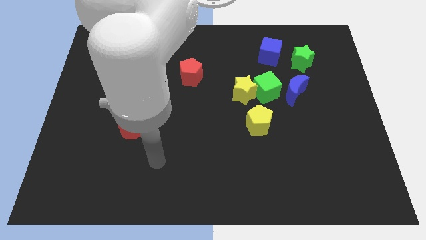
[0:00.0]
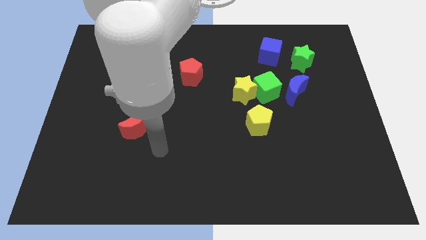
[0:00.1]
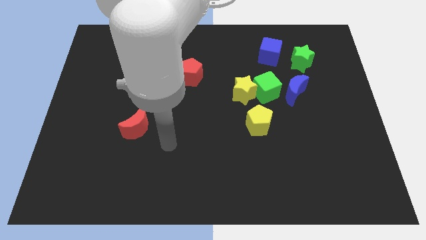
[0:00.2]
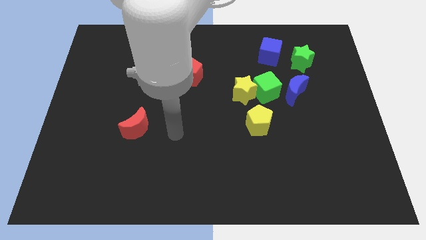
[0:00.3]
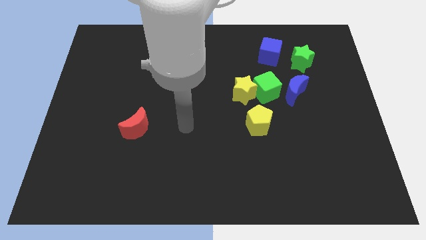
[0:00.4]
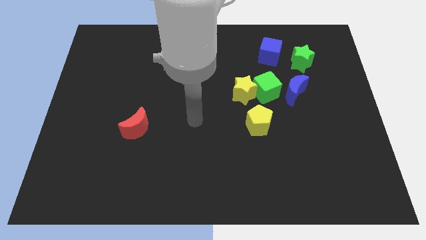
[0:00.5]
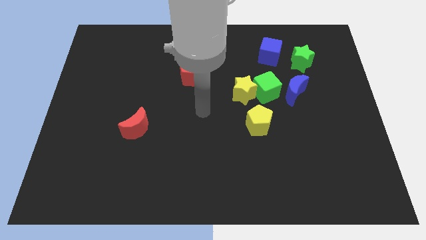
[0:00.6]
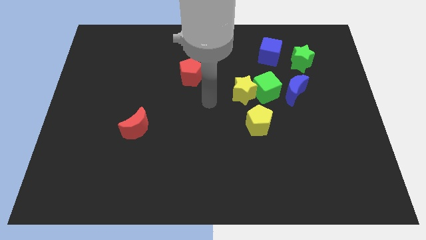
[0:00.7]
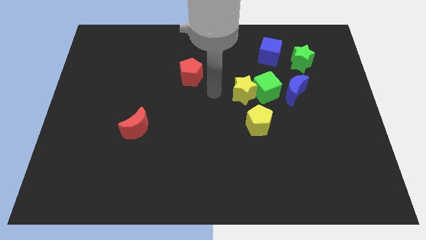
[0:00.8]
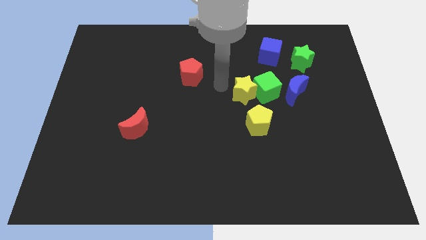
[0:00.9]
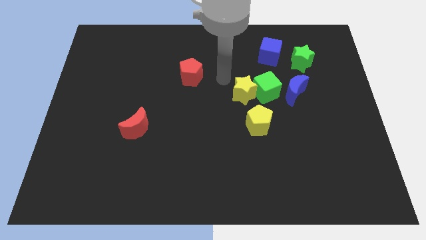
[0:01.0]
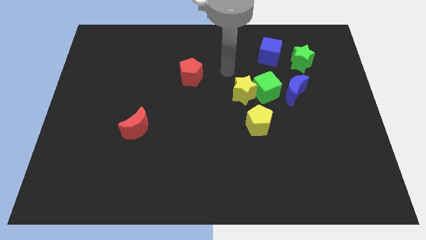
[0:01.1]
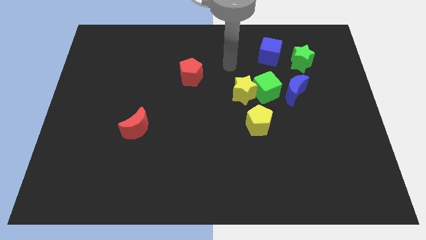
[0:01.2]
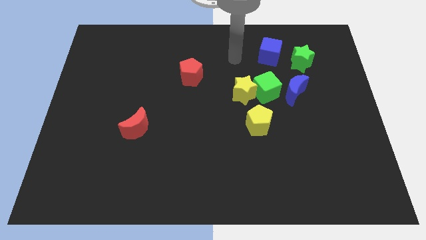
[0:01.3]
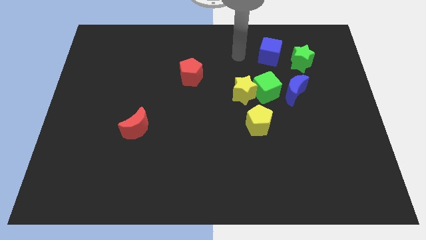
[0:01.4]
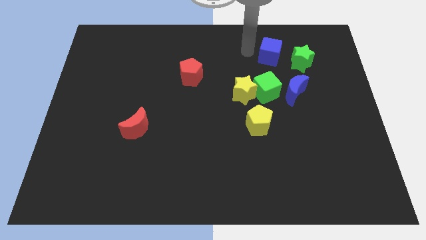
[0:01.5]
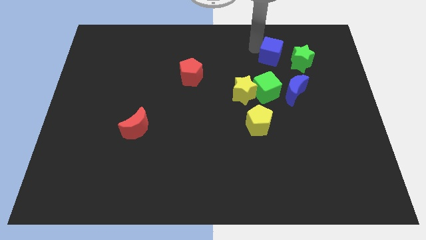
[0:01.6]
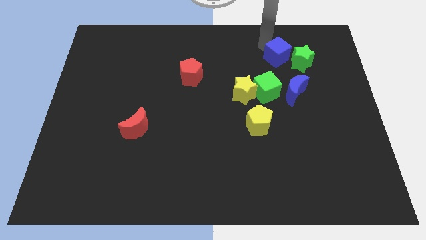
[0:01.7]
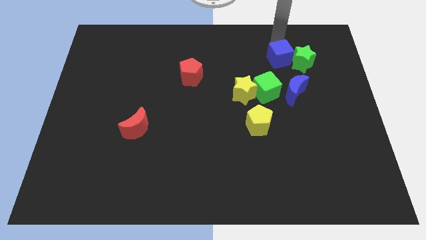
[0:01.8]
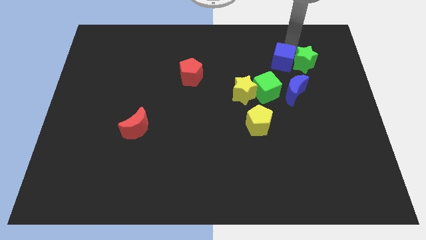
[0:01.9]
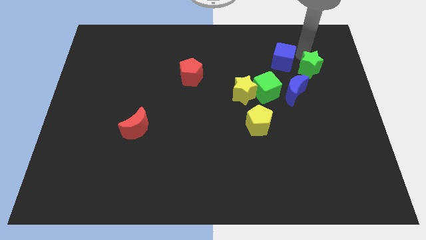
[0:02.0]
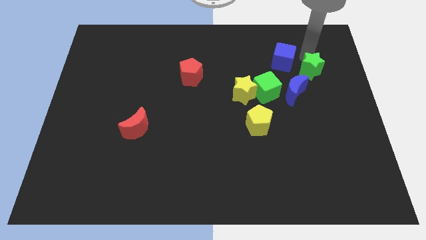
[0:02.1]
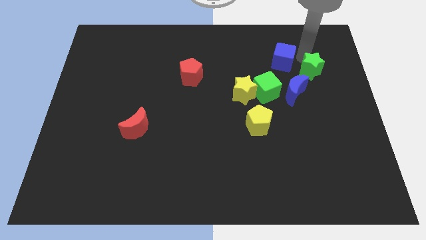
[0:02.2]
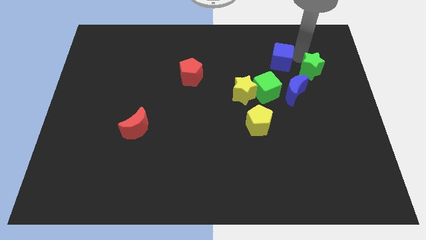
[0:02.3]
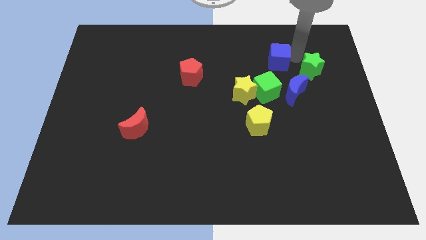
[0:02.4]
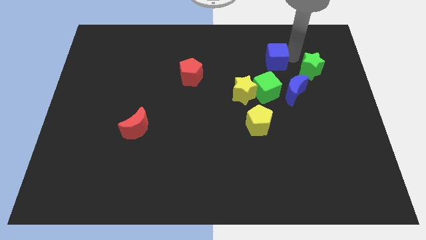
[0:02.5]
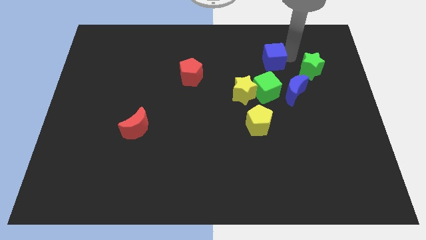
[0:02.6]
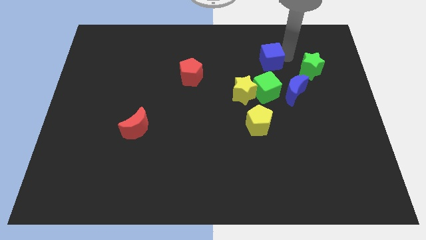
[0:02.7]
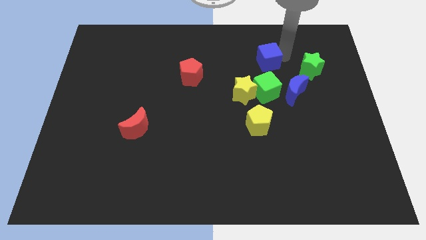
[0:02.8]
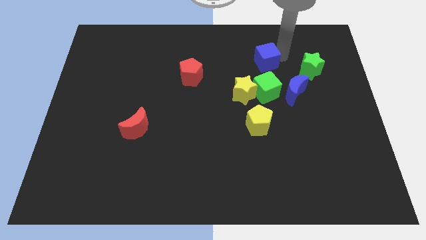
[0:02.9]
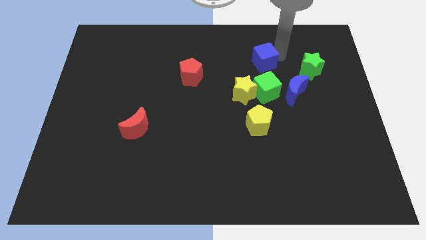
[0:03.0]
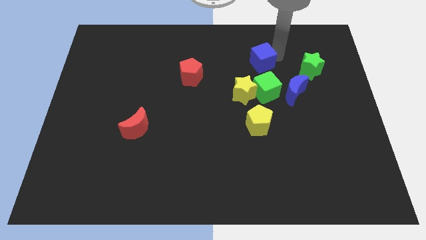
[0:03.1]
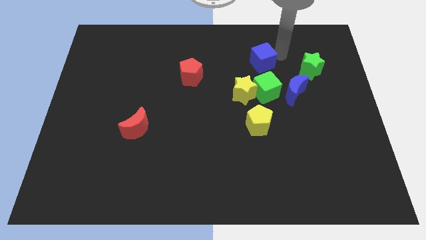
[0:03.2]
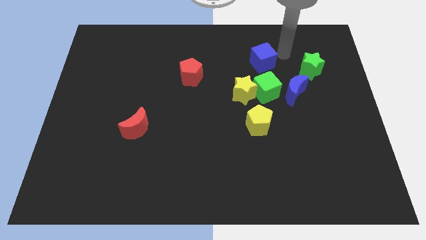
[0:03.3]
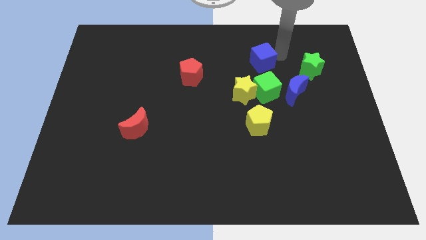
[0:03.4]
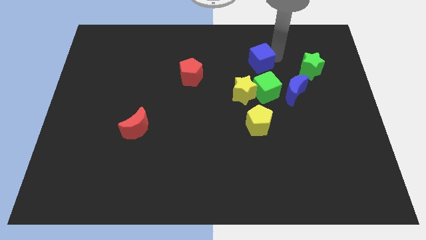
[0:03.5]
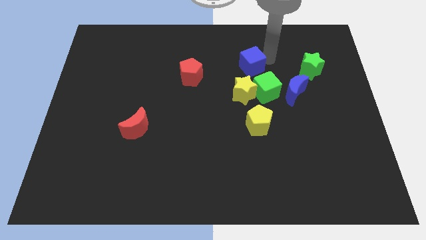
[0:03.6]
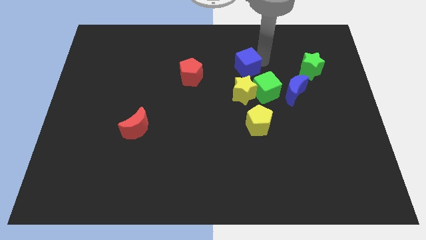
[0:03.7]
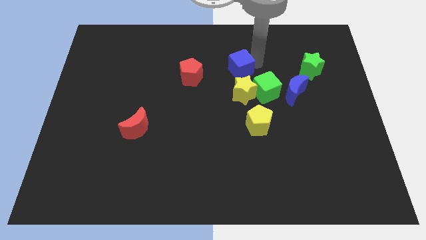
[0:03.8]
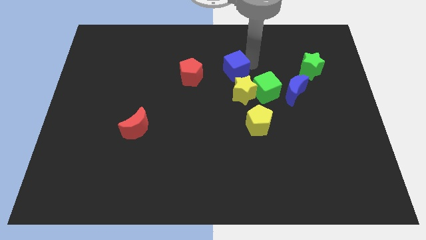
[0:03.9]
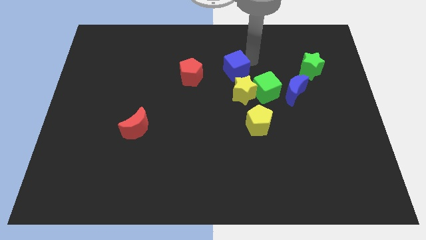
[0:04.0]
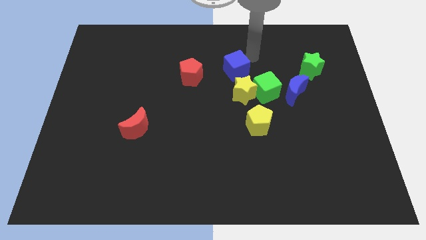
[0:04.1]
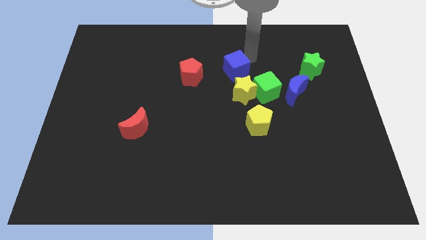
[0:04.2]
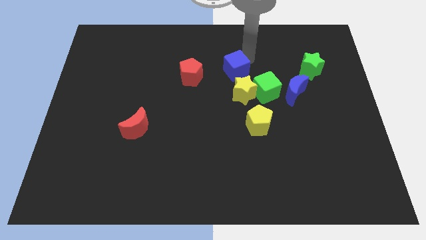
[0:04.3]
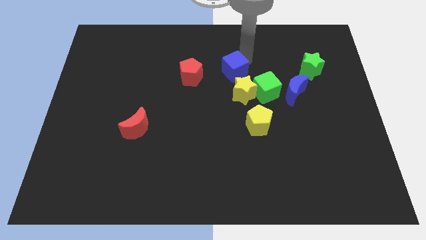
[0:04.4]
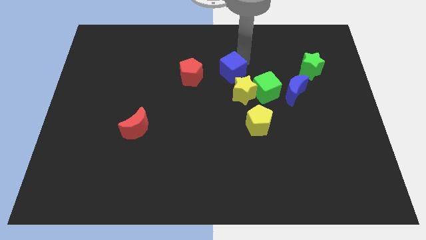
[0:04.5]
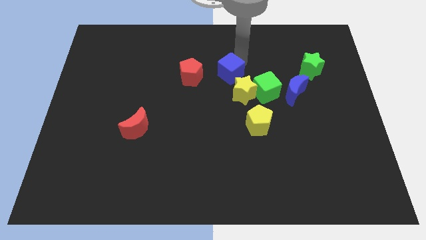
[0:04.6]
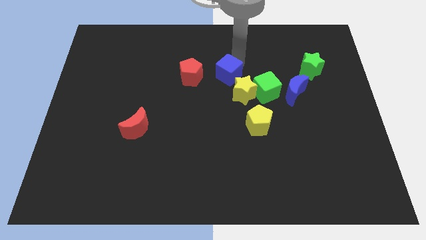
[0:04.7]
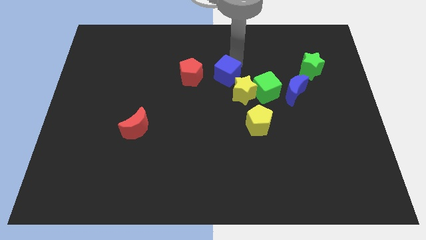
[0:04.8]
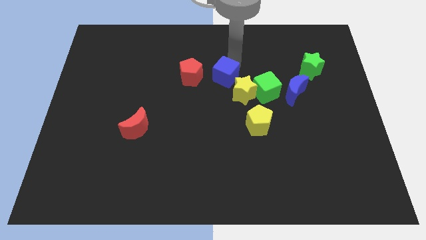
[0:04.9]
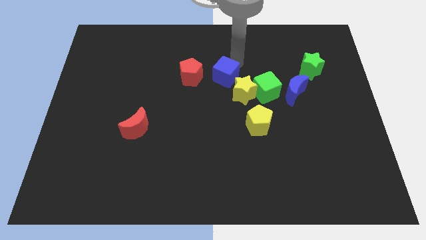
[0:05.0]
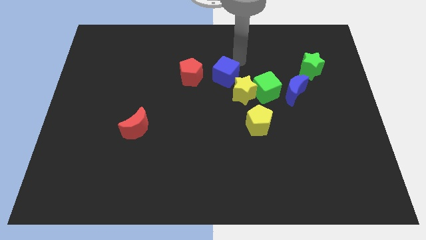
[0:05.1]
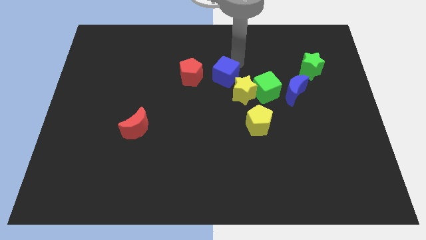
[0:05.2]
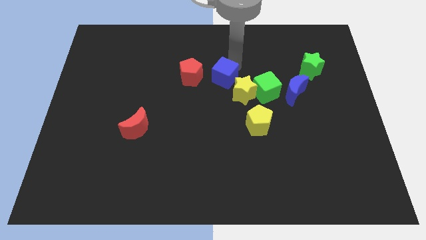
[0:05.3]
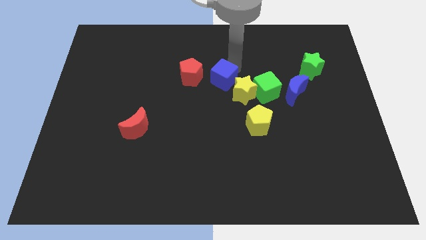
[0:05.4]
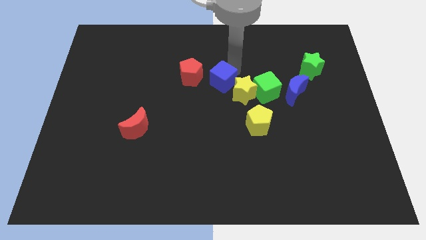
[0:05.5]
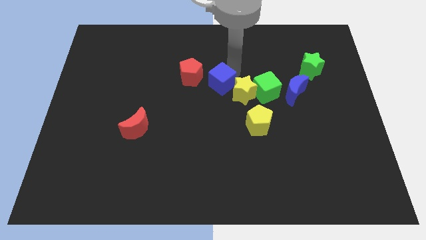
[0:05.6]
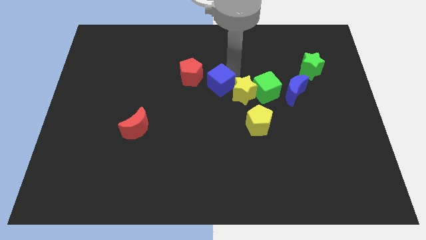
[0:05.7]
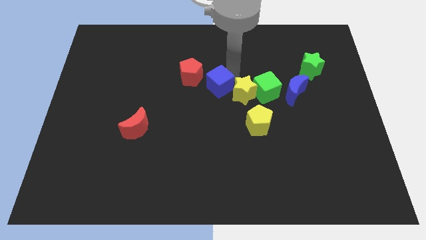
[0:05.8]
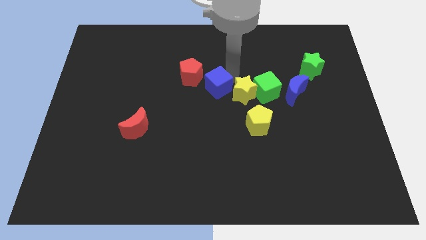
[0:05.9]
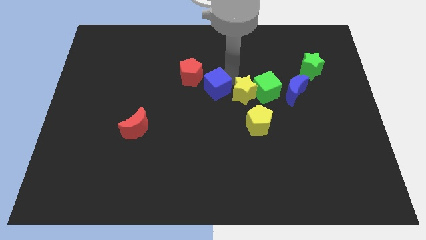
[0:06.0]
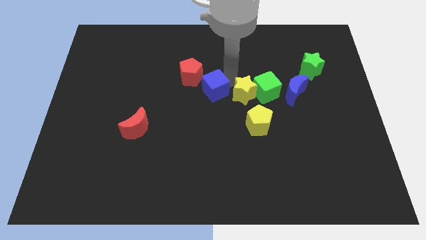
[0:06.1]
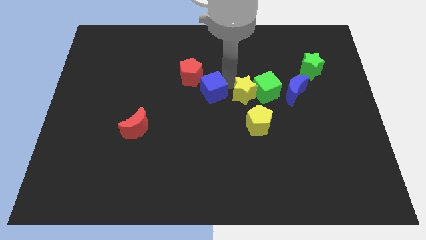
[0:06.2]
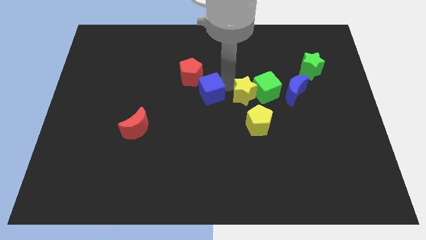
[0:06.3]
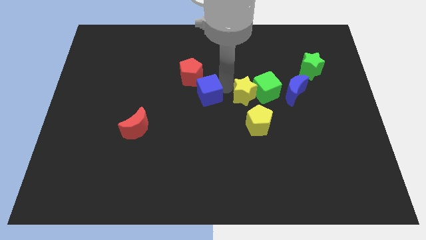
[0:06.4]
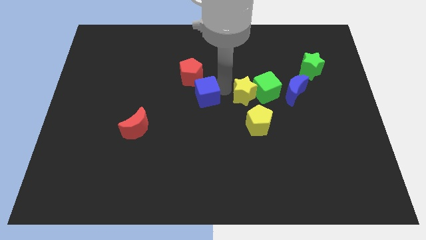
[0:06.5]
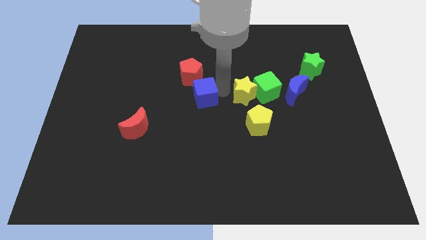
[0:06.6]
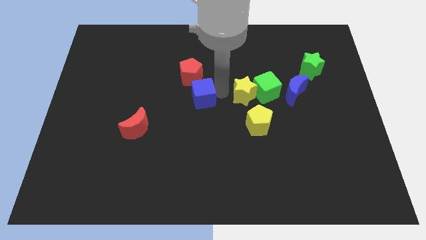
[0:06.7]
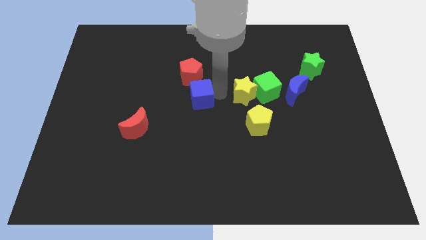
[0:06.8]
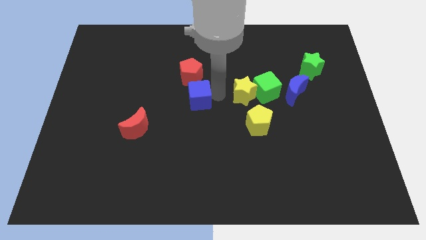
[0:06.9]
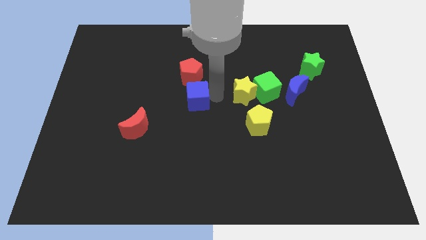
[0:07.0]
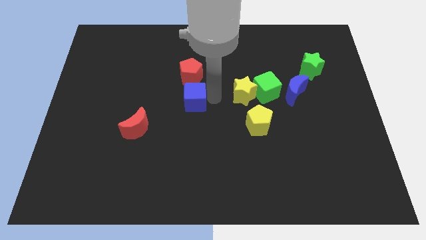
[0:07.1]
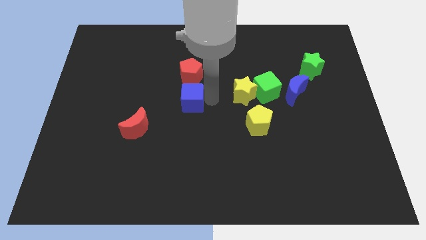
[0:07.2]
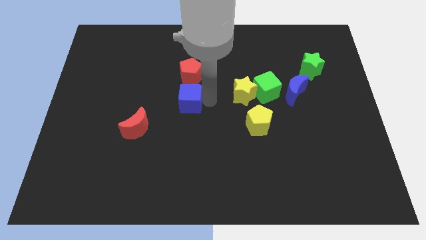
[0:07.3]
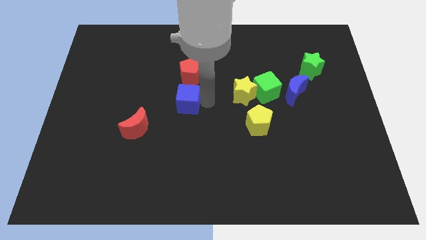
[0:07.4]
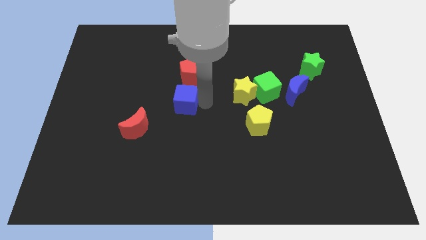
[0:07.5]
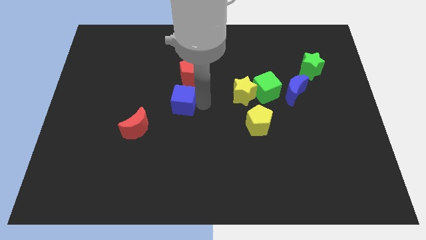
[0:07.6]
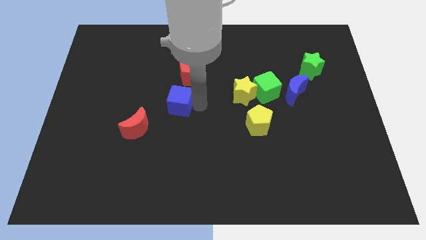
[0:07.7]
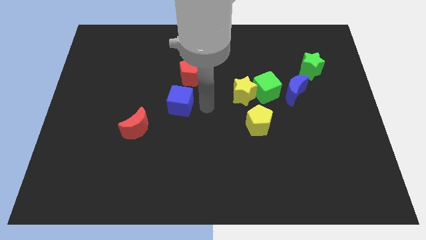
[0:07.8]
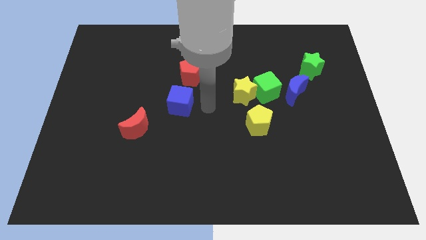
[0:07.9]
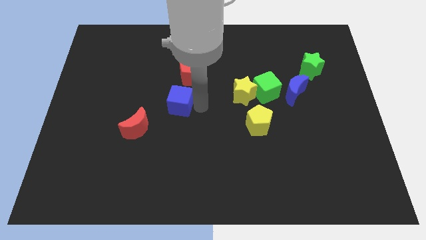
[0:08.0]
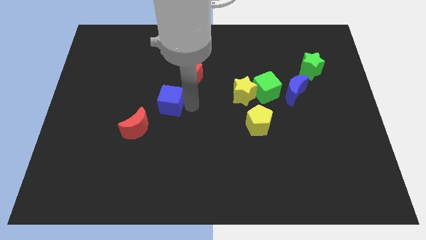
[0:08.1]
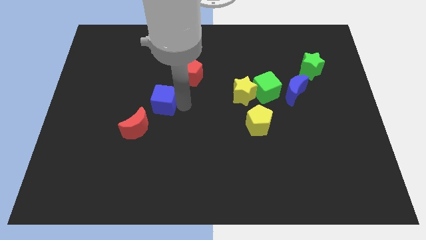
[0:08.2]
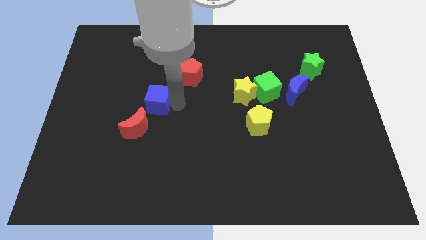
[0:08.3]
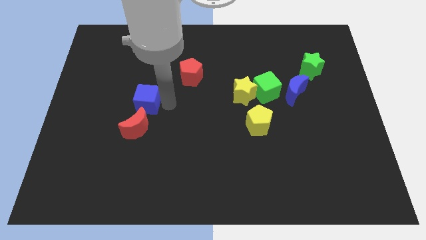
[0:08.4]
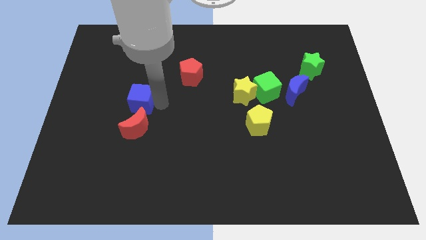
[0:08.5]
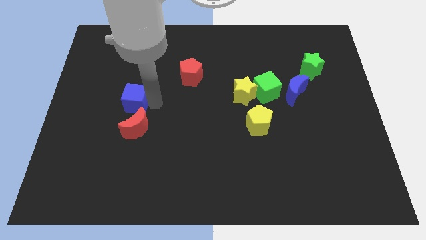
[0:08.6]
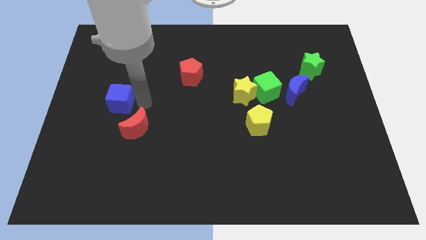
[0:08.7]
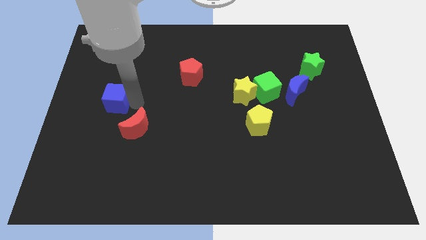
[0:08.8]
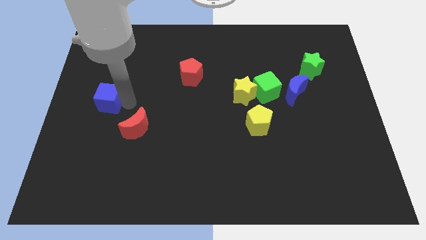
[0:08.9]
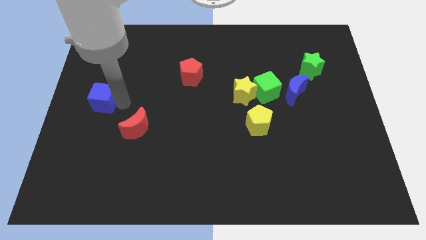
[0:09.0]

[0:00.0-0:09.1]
put the blue cube to the left side
